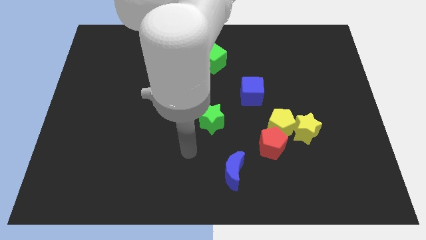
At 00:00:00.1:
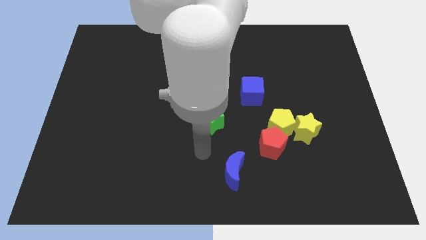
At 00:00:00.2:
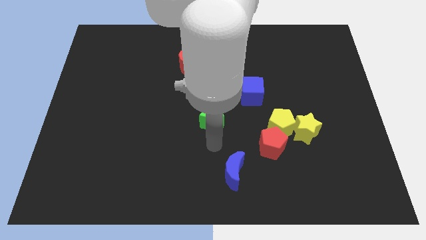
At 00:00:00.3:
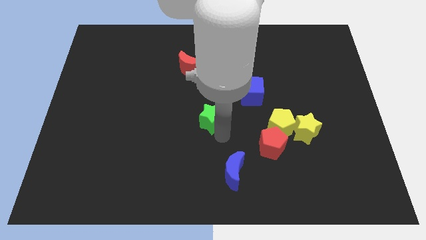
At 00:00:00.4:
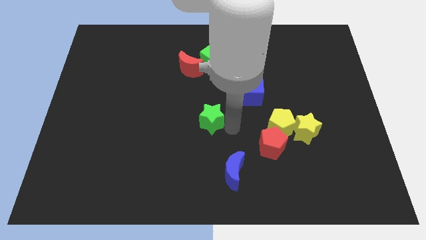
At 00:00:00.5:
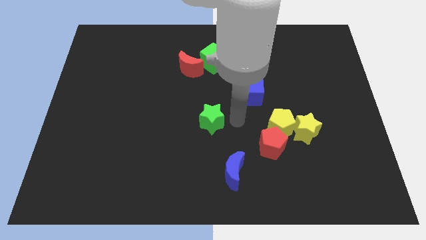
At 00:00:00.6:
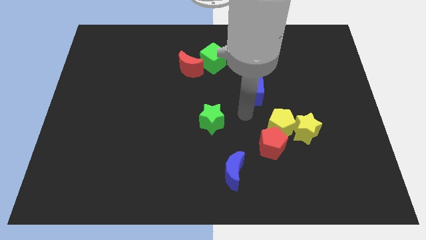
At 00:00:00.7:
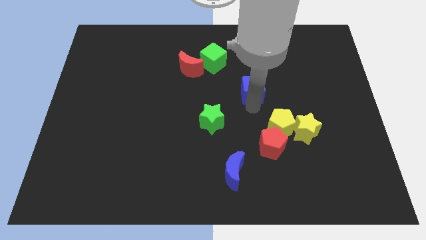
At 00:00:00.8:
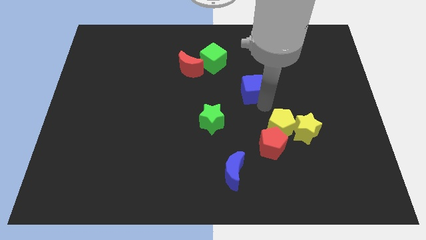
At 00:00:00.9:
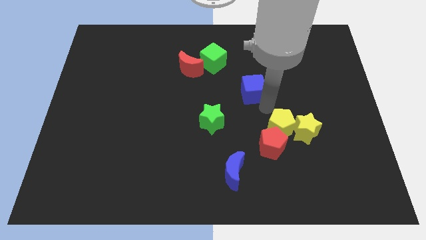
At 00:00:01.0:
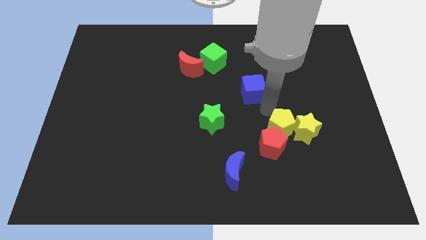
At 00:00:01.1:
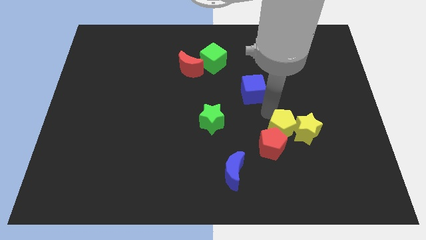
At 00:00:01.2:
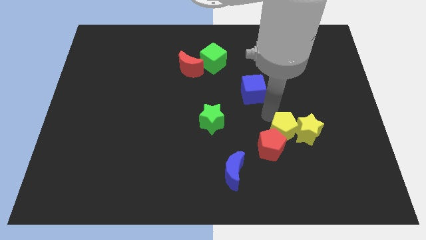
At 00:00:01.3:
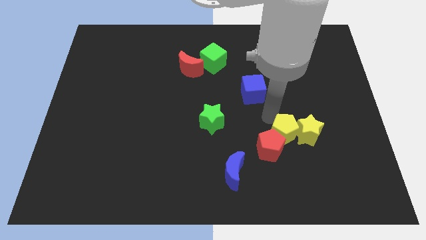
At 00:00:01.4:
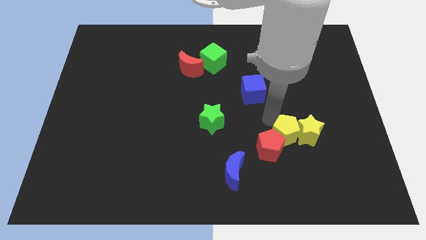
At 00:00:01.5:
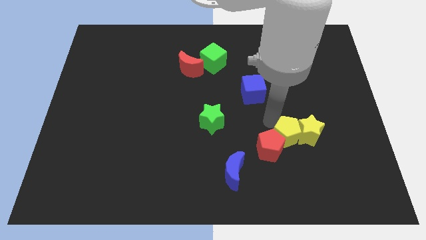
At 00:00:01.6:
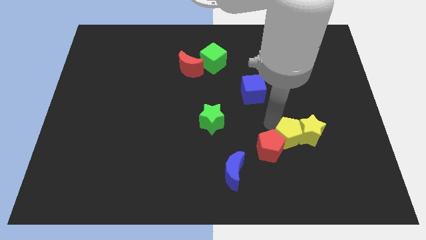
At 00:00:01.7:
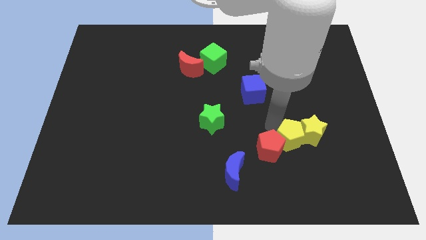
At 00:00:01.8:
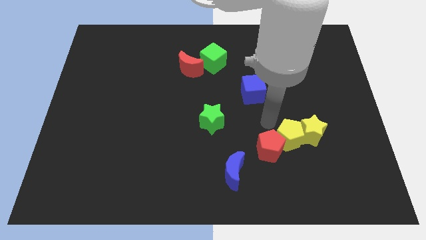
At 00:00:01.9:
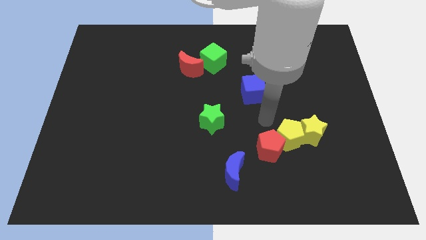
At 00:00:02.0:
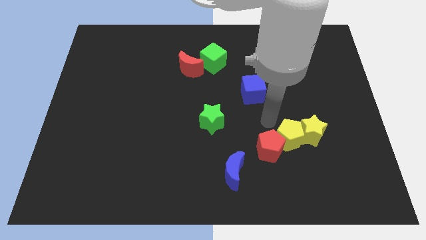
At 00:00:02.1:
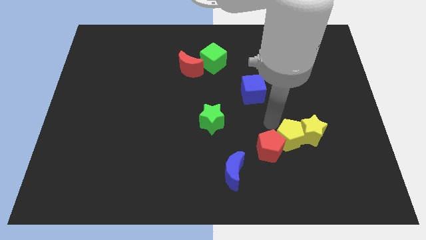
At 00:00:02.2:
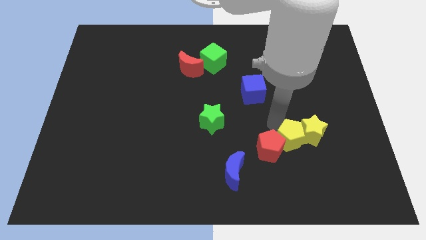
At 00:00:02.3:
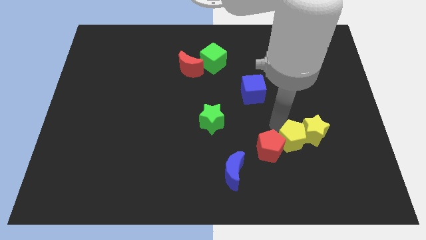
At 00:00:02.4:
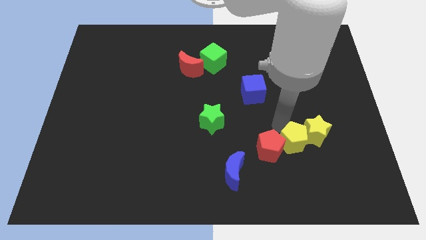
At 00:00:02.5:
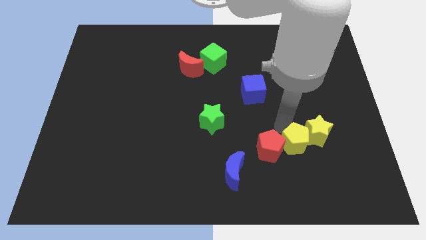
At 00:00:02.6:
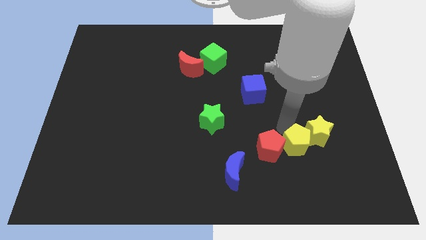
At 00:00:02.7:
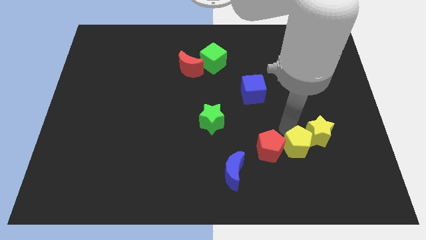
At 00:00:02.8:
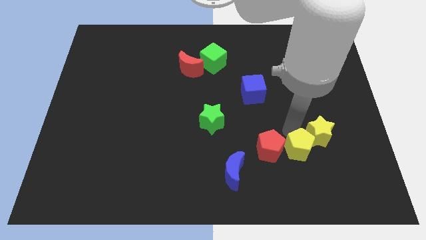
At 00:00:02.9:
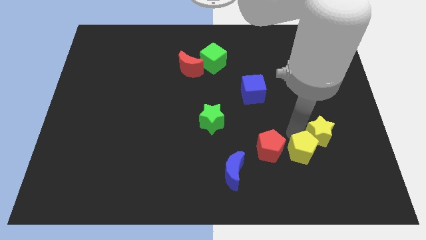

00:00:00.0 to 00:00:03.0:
slide the yellow pentagon down and right diagonally slightly

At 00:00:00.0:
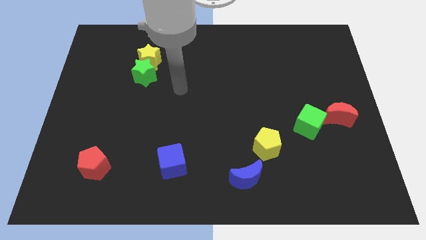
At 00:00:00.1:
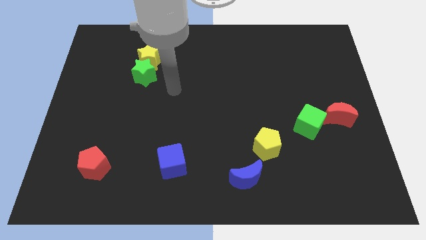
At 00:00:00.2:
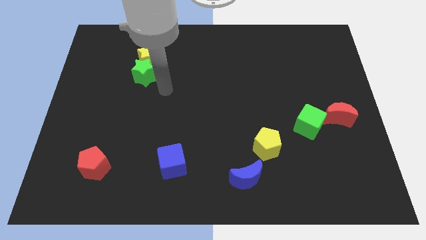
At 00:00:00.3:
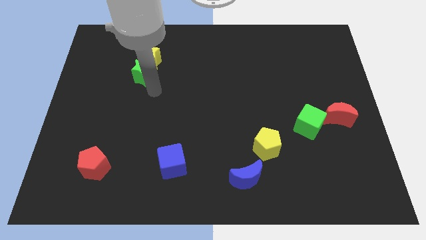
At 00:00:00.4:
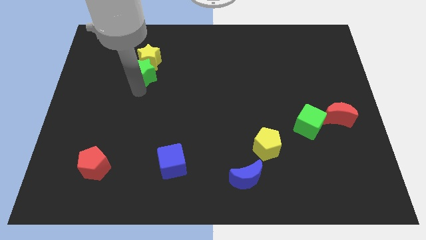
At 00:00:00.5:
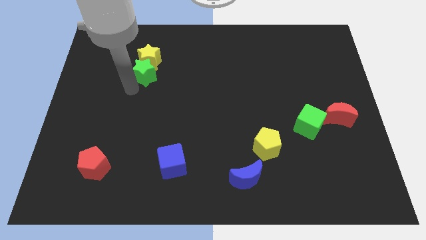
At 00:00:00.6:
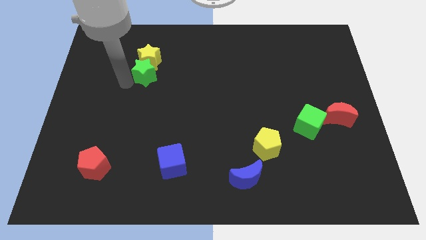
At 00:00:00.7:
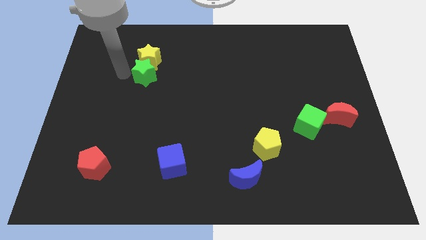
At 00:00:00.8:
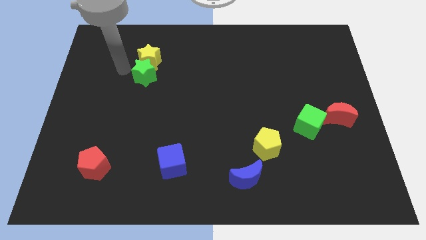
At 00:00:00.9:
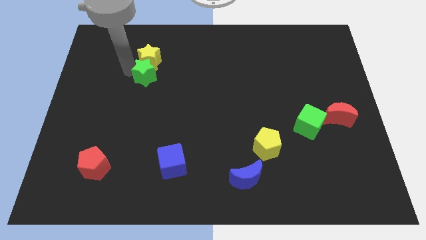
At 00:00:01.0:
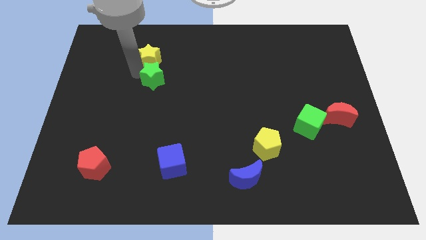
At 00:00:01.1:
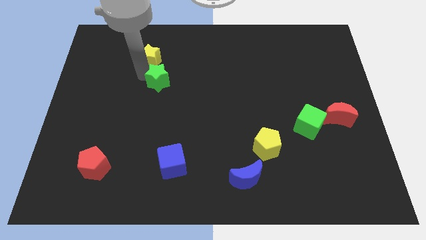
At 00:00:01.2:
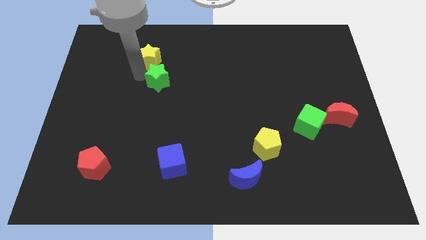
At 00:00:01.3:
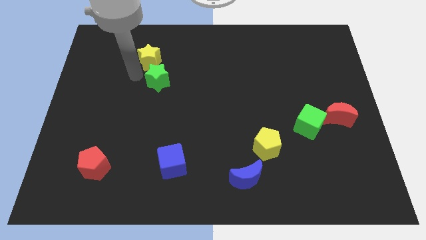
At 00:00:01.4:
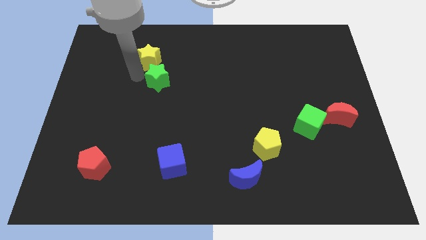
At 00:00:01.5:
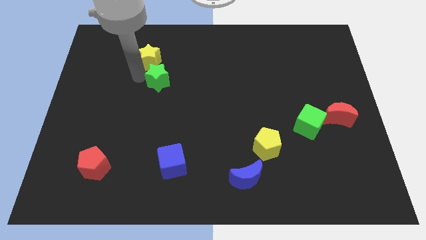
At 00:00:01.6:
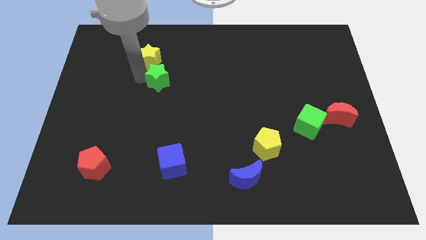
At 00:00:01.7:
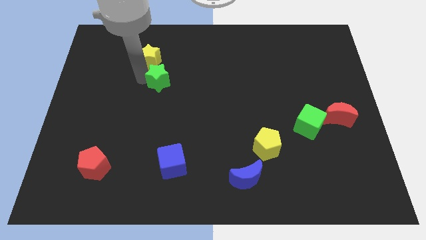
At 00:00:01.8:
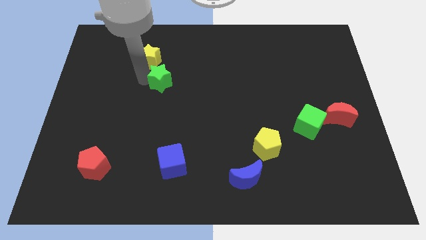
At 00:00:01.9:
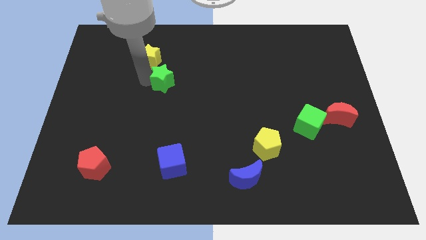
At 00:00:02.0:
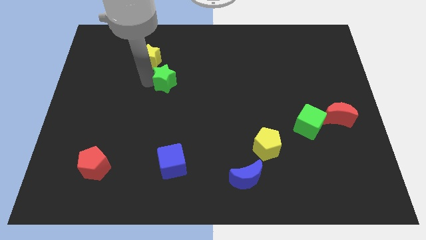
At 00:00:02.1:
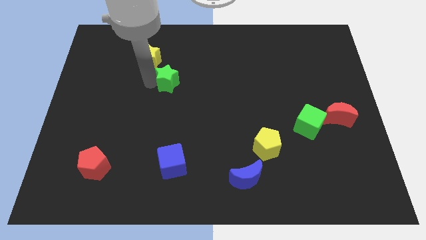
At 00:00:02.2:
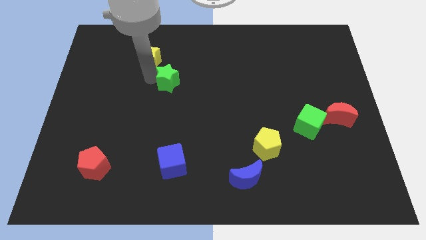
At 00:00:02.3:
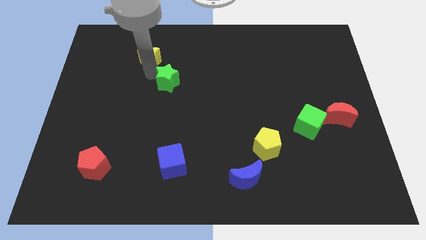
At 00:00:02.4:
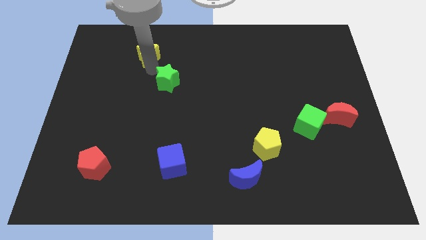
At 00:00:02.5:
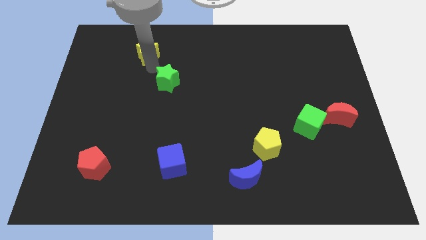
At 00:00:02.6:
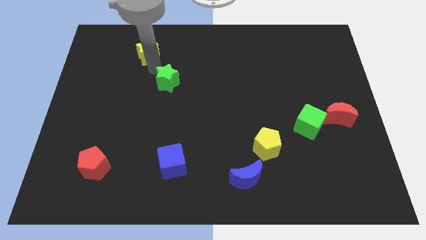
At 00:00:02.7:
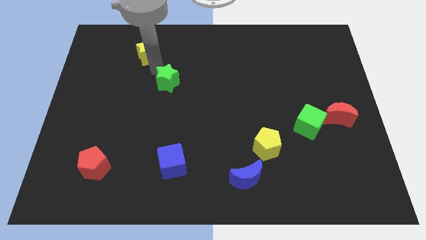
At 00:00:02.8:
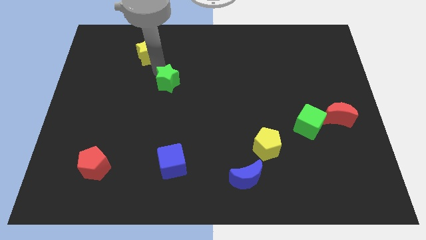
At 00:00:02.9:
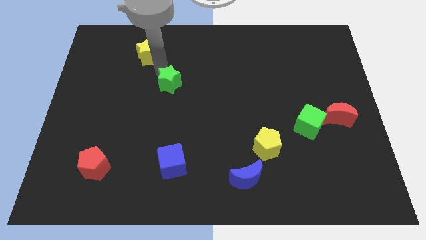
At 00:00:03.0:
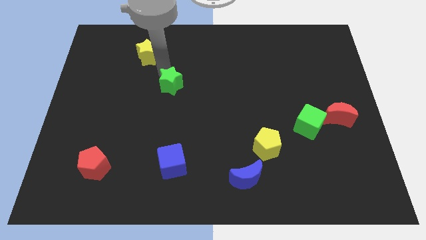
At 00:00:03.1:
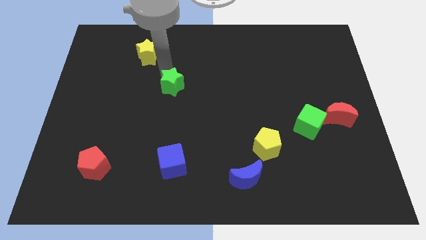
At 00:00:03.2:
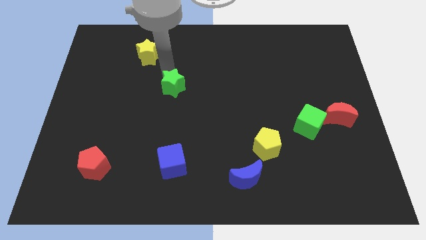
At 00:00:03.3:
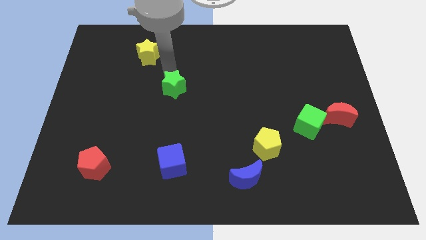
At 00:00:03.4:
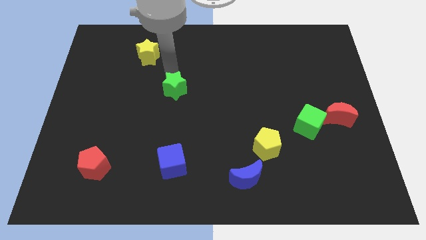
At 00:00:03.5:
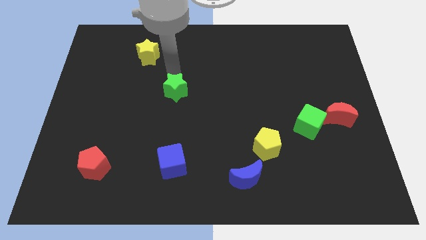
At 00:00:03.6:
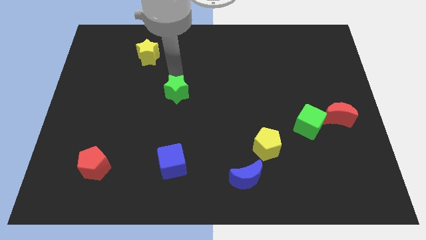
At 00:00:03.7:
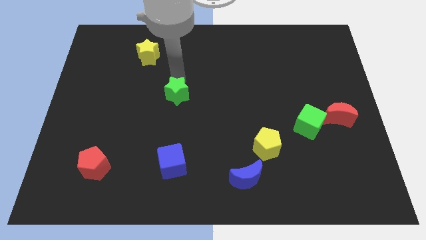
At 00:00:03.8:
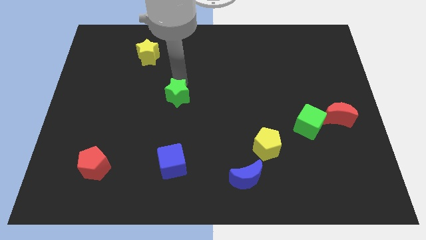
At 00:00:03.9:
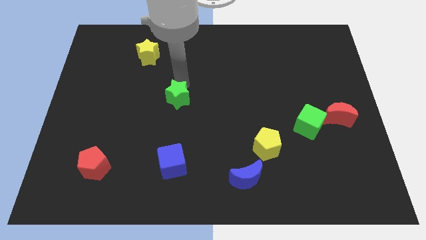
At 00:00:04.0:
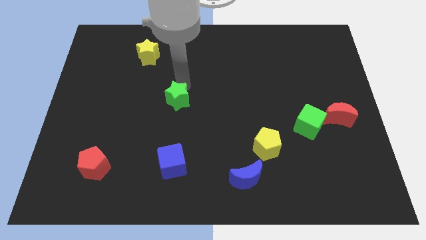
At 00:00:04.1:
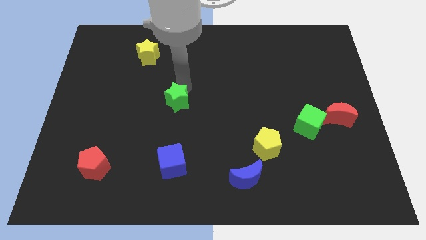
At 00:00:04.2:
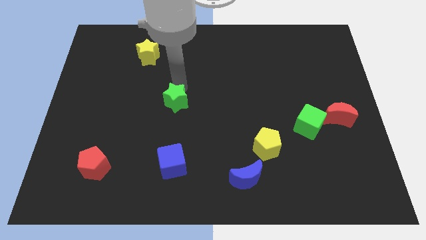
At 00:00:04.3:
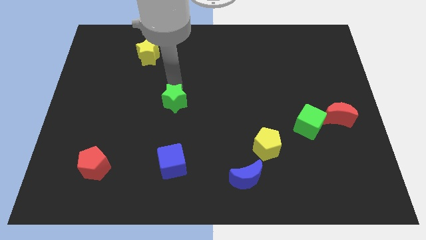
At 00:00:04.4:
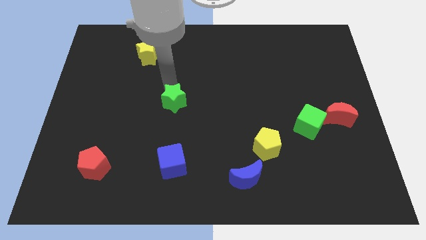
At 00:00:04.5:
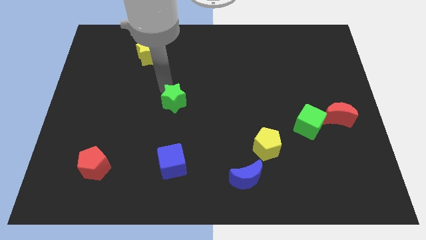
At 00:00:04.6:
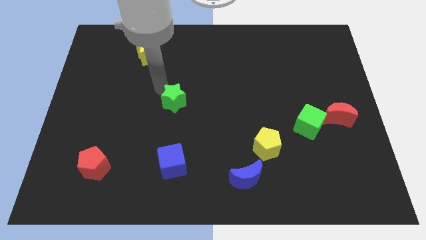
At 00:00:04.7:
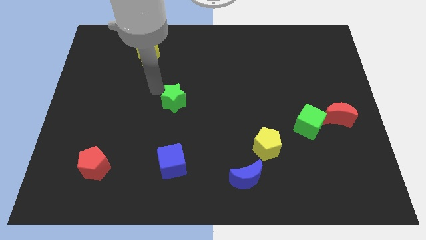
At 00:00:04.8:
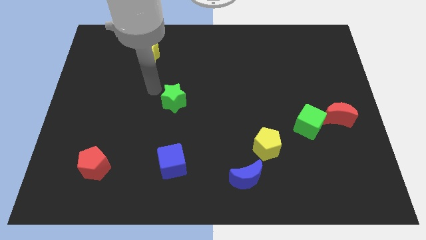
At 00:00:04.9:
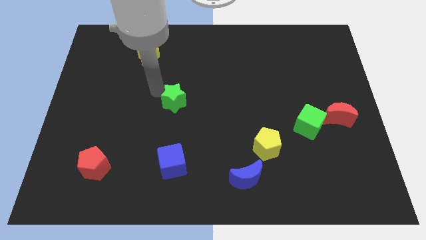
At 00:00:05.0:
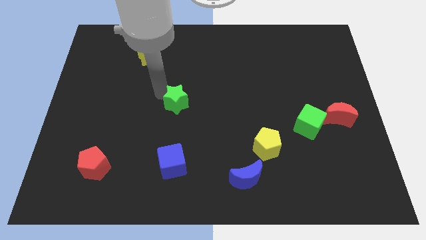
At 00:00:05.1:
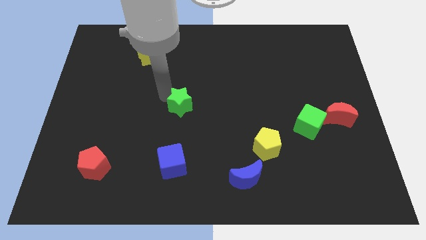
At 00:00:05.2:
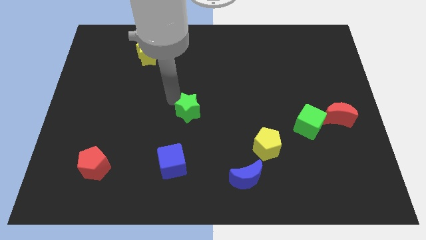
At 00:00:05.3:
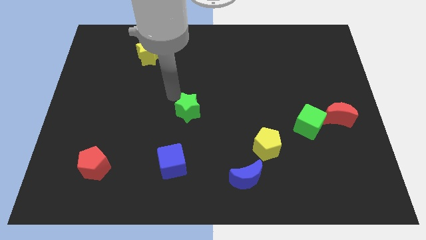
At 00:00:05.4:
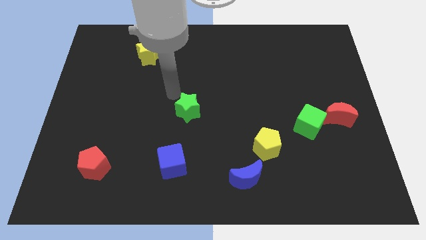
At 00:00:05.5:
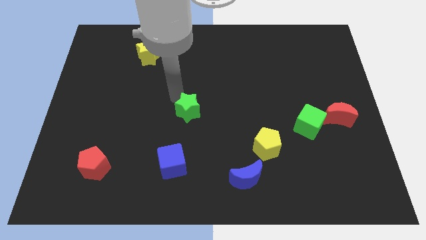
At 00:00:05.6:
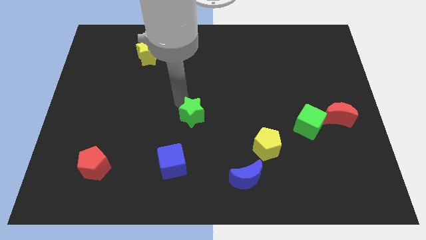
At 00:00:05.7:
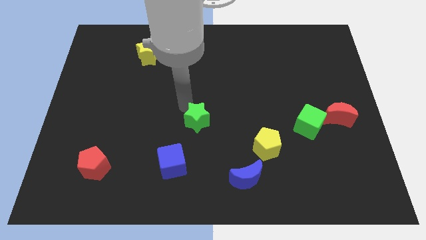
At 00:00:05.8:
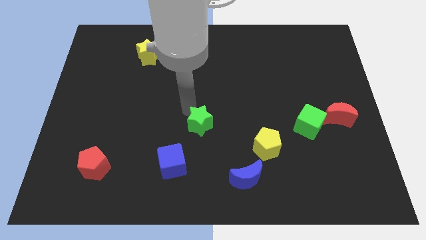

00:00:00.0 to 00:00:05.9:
slide the green star diagonally downwards and to the right
